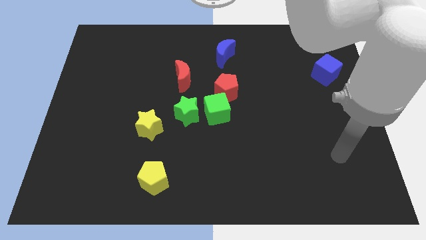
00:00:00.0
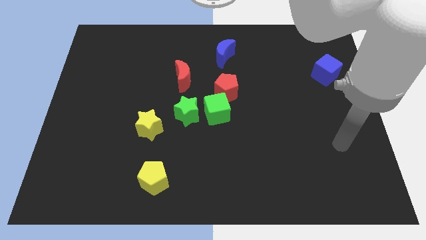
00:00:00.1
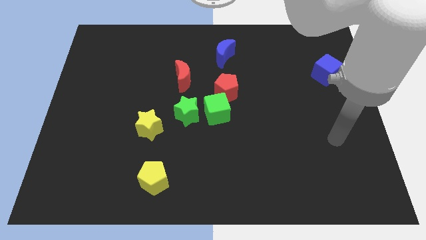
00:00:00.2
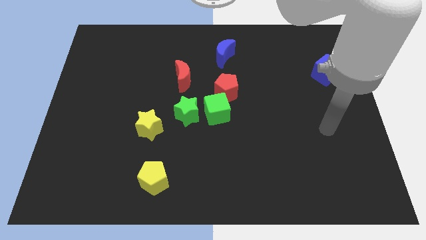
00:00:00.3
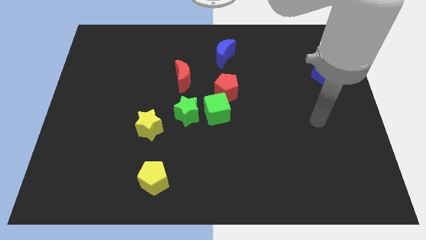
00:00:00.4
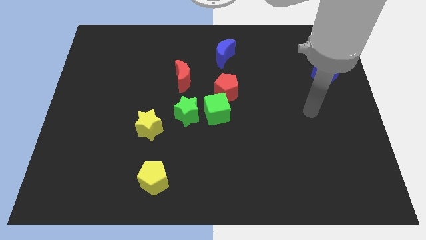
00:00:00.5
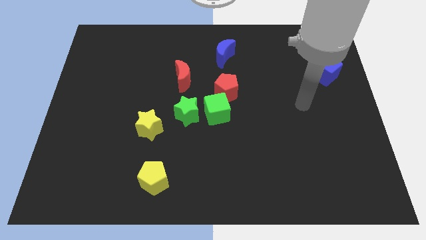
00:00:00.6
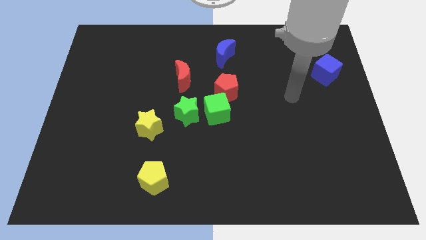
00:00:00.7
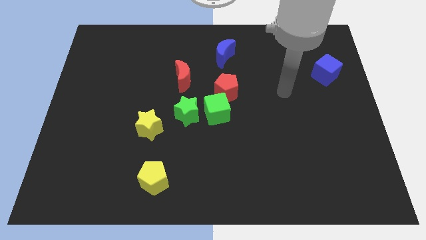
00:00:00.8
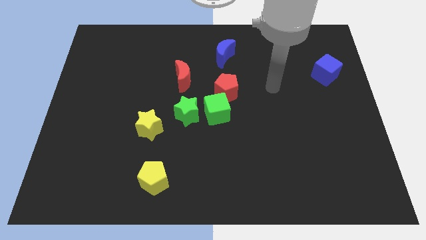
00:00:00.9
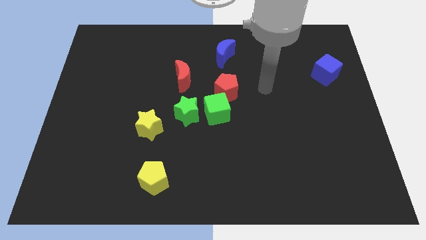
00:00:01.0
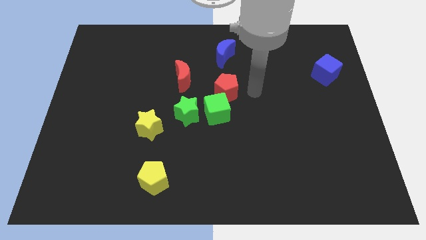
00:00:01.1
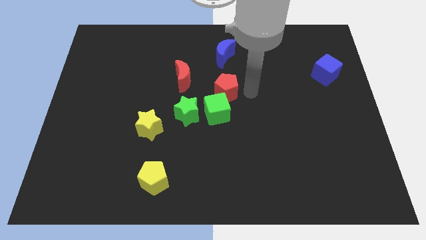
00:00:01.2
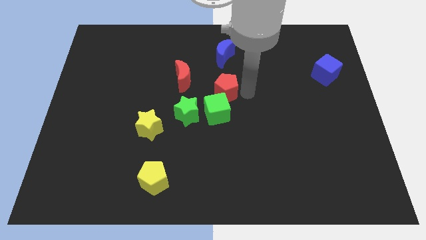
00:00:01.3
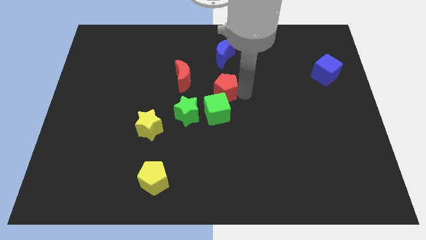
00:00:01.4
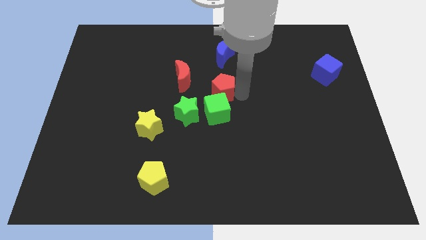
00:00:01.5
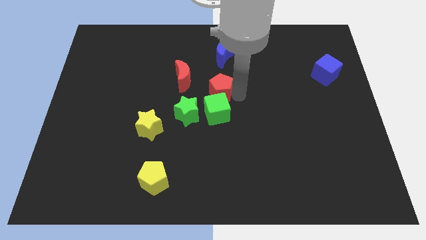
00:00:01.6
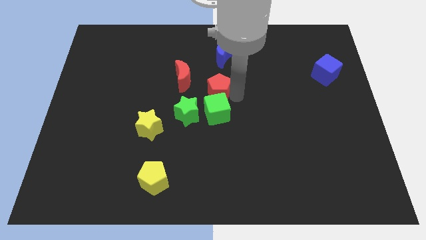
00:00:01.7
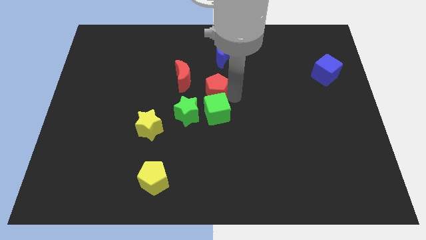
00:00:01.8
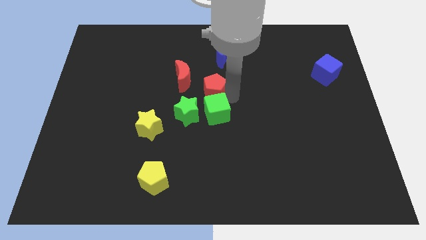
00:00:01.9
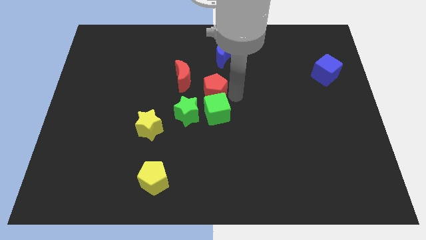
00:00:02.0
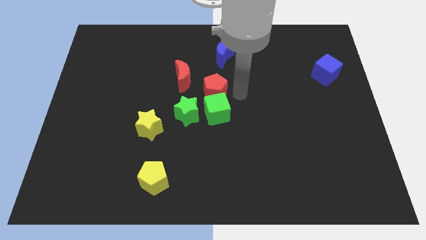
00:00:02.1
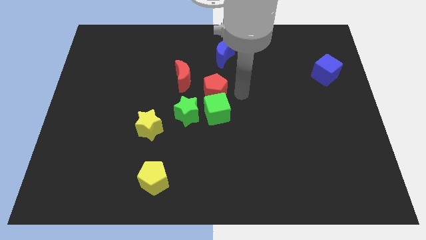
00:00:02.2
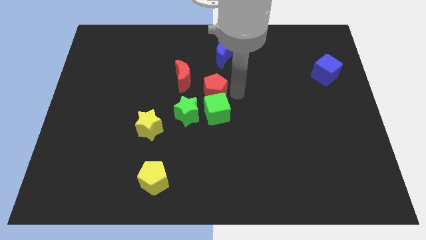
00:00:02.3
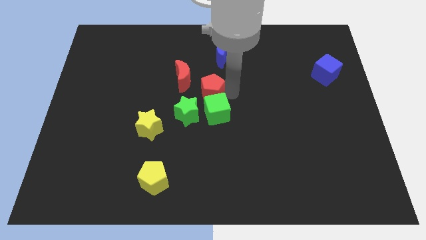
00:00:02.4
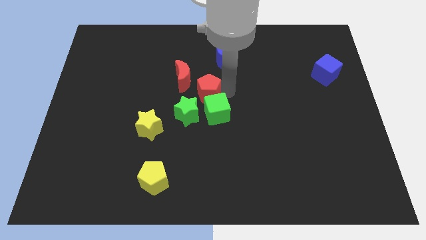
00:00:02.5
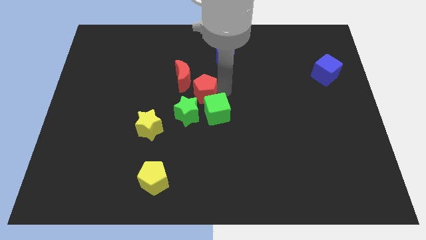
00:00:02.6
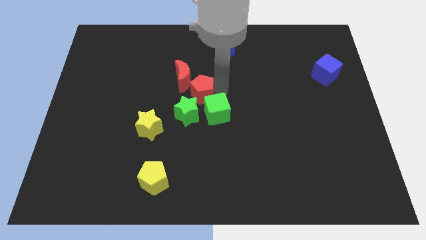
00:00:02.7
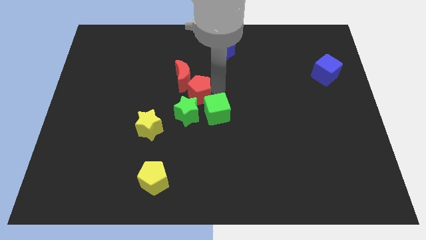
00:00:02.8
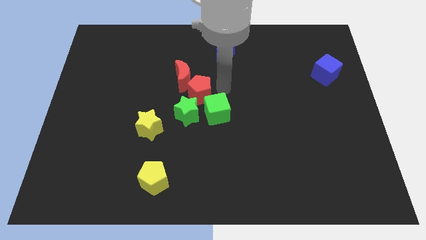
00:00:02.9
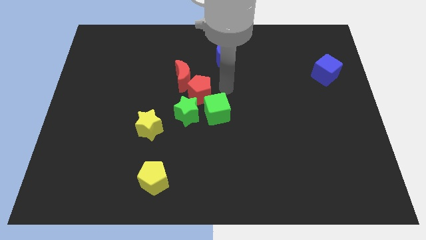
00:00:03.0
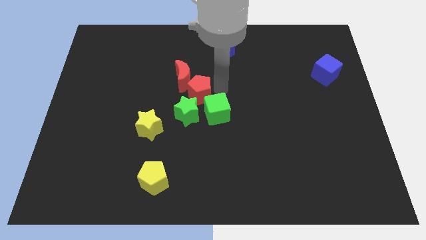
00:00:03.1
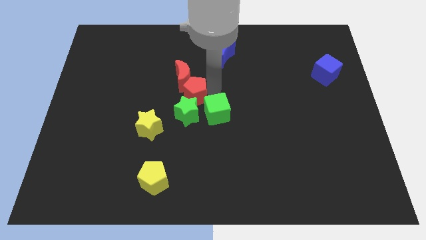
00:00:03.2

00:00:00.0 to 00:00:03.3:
slightly move the red pentagon left

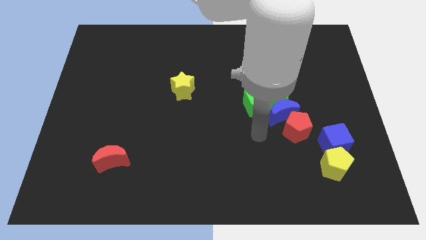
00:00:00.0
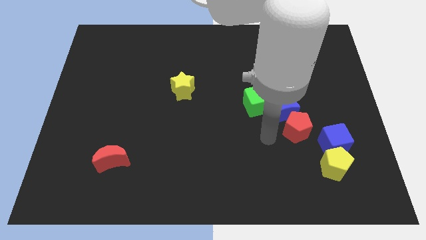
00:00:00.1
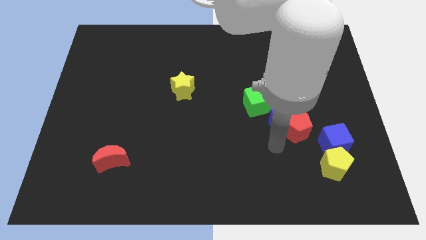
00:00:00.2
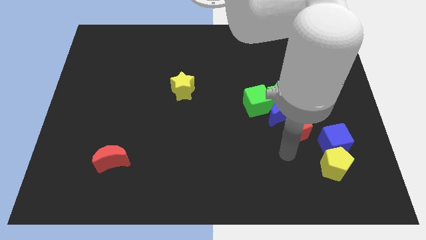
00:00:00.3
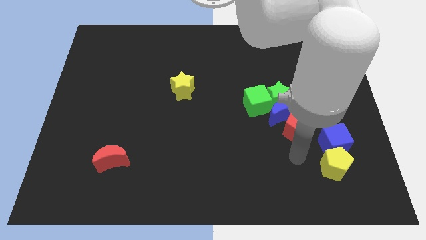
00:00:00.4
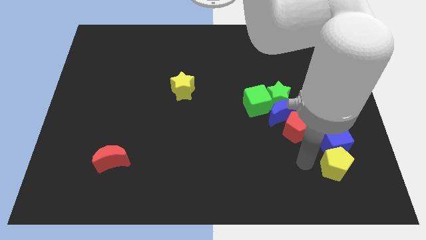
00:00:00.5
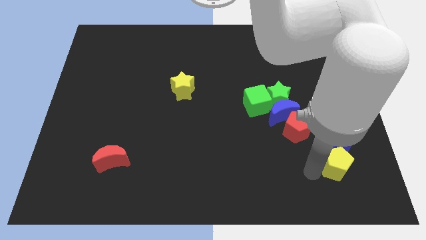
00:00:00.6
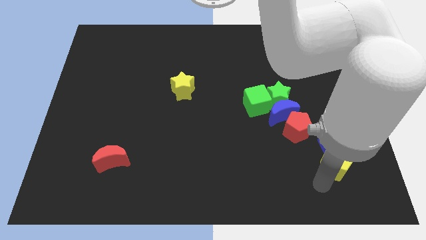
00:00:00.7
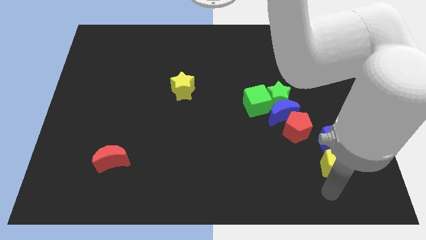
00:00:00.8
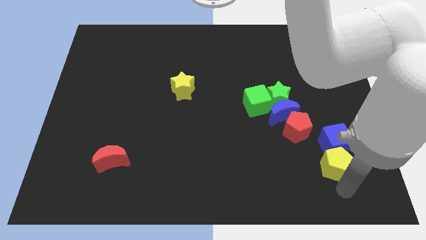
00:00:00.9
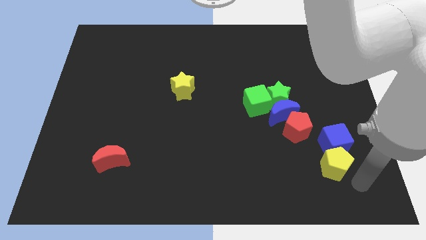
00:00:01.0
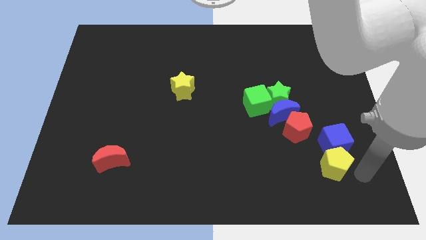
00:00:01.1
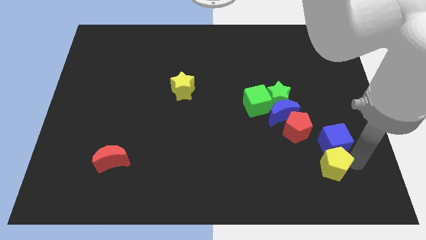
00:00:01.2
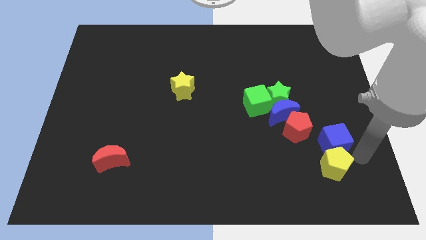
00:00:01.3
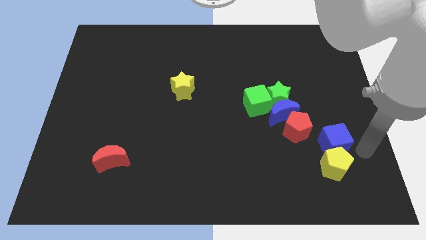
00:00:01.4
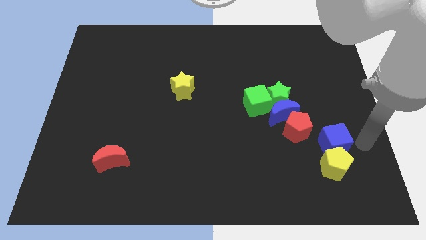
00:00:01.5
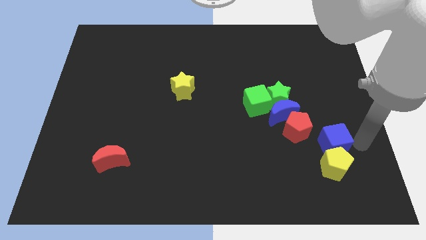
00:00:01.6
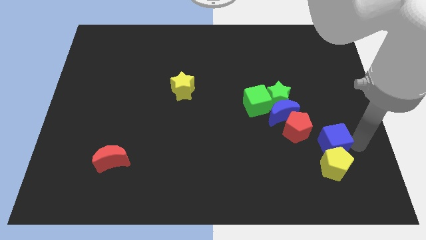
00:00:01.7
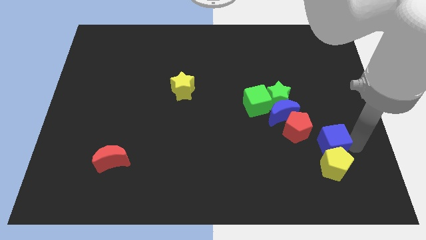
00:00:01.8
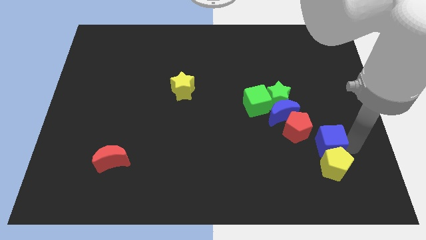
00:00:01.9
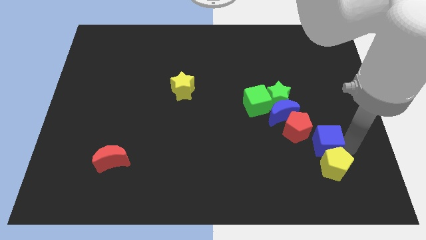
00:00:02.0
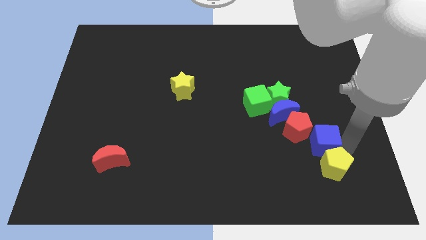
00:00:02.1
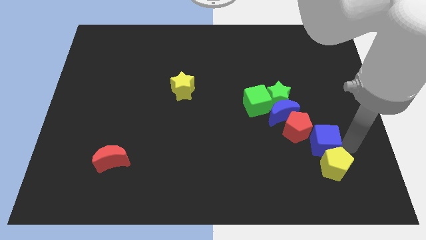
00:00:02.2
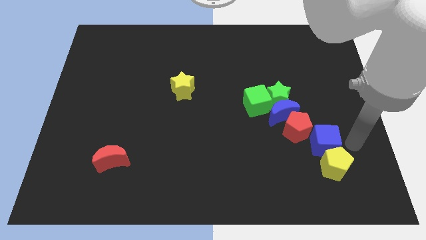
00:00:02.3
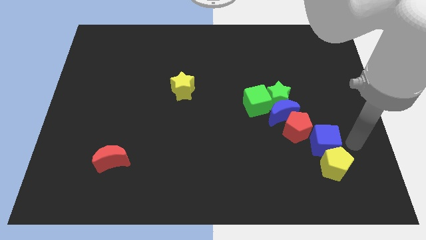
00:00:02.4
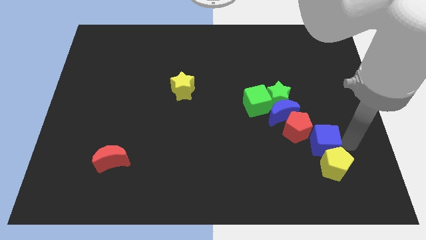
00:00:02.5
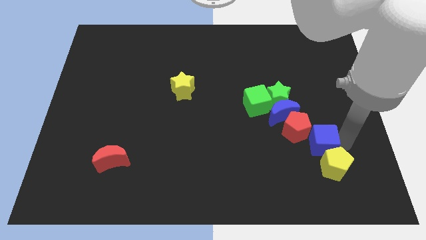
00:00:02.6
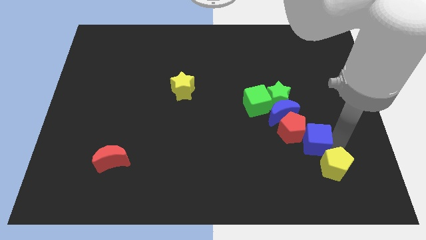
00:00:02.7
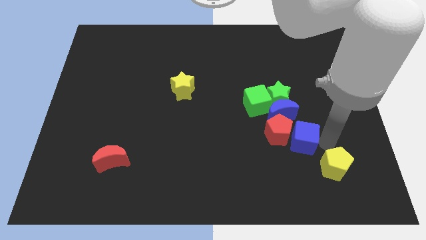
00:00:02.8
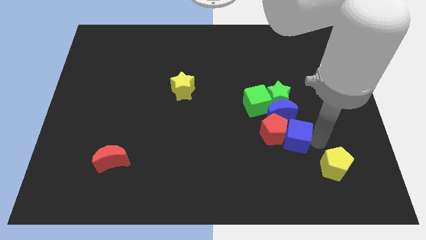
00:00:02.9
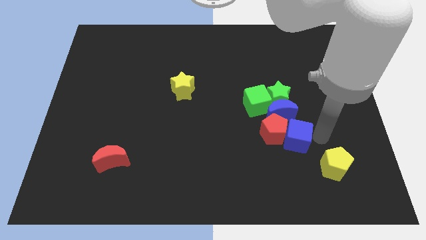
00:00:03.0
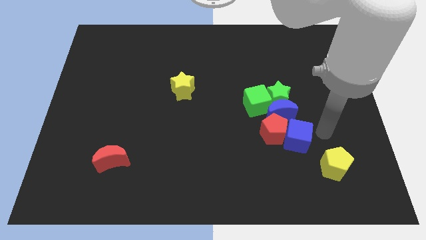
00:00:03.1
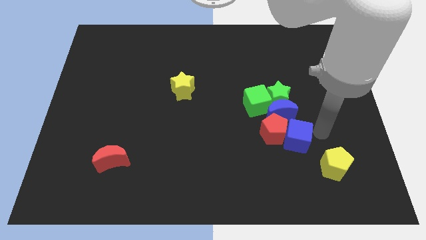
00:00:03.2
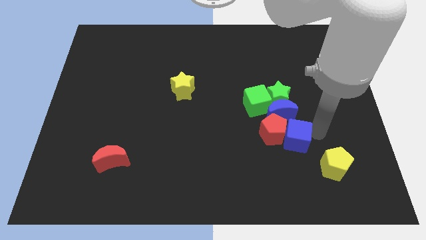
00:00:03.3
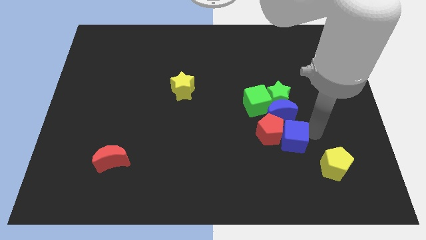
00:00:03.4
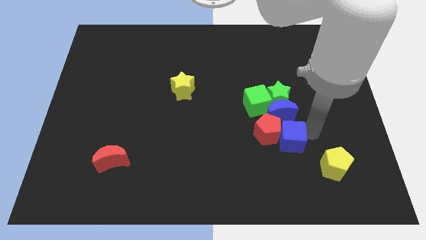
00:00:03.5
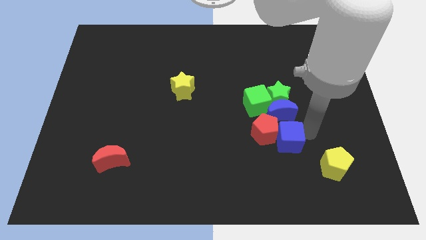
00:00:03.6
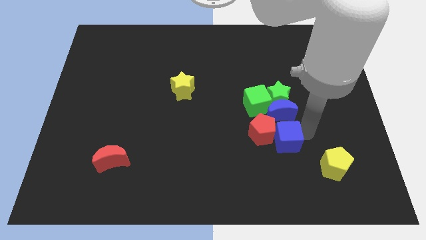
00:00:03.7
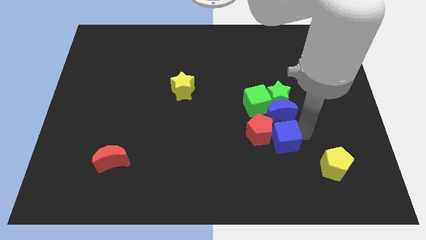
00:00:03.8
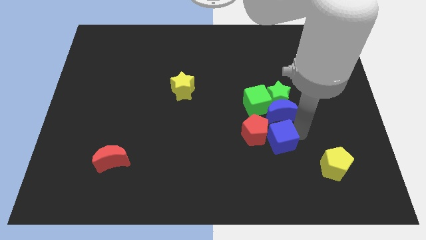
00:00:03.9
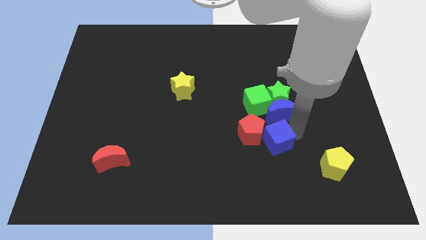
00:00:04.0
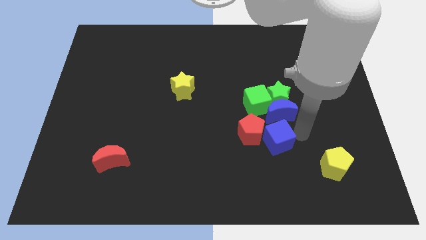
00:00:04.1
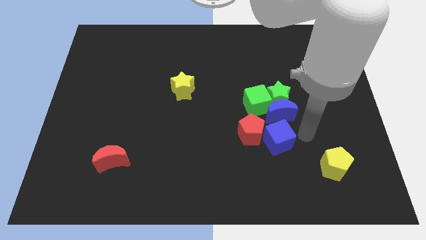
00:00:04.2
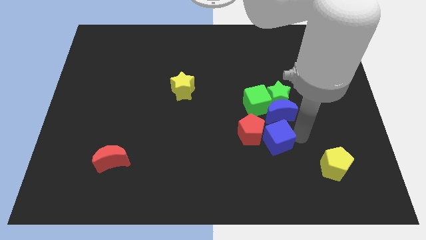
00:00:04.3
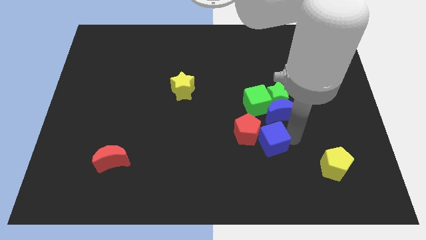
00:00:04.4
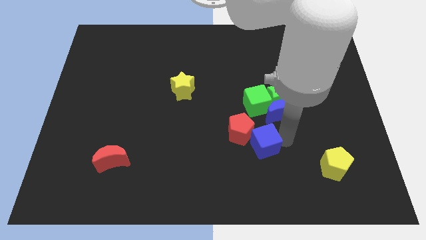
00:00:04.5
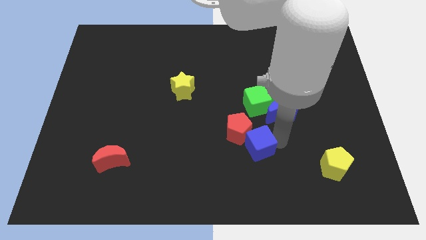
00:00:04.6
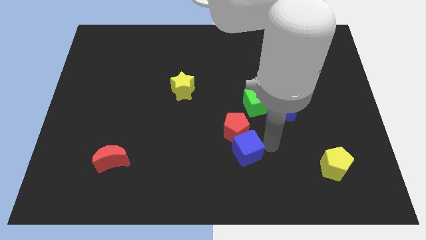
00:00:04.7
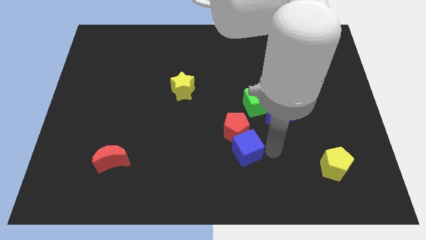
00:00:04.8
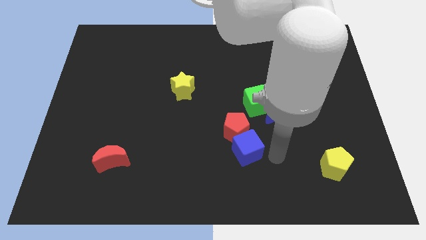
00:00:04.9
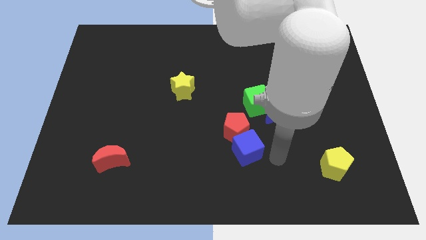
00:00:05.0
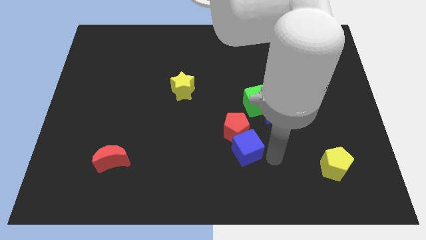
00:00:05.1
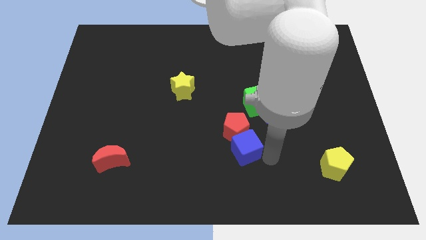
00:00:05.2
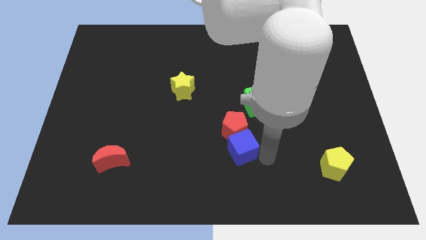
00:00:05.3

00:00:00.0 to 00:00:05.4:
slide the blue cube to the left
